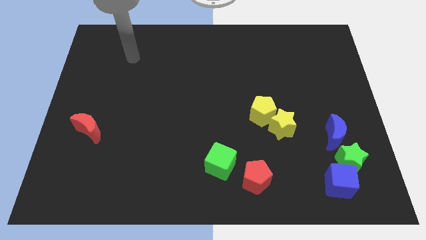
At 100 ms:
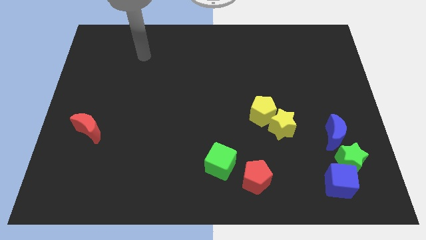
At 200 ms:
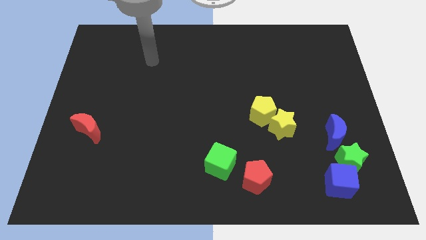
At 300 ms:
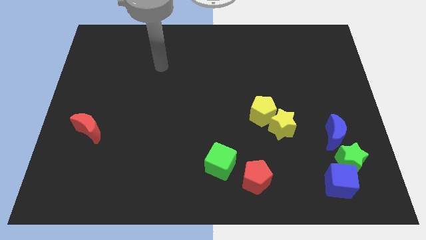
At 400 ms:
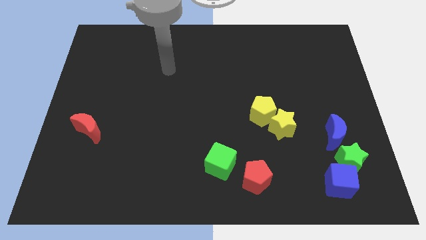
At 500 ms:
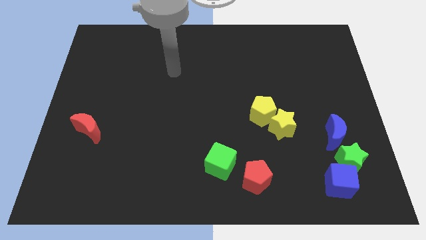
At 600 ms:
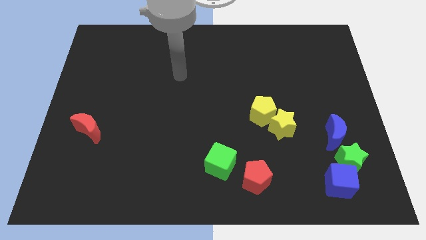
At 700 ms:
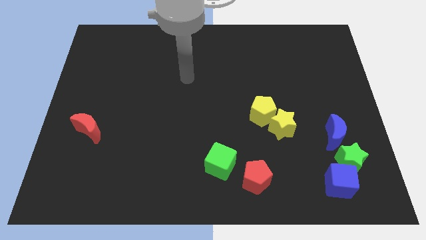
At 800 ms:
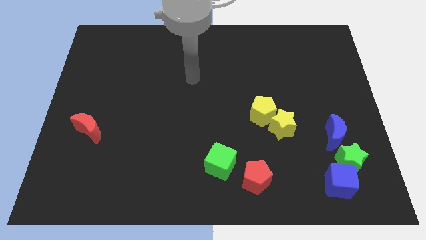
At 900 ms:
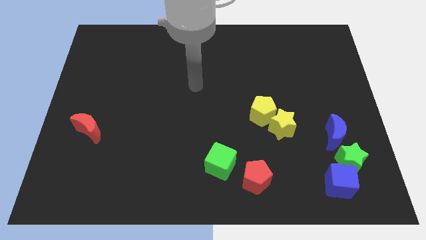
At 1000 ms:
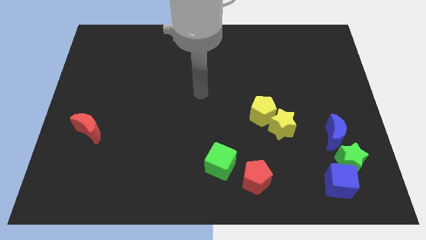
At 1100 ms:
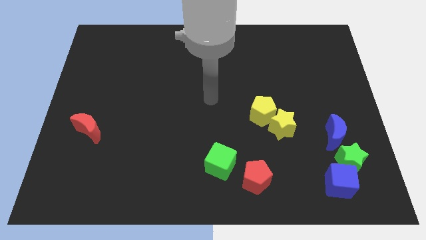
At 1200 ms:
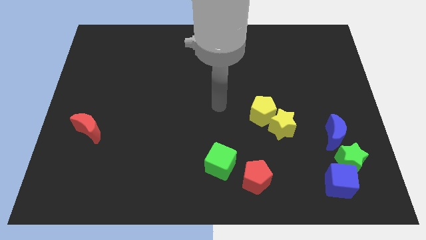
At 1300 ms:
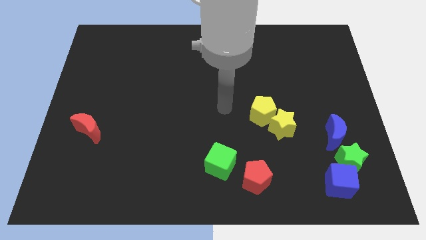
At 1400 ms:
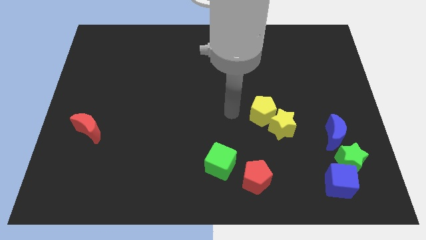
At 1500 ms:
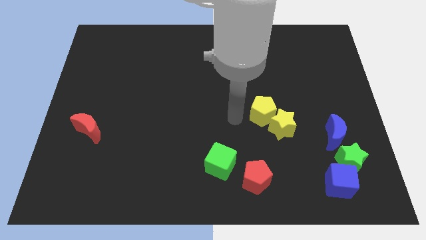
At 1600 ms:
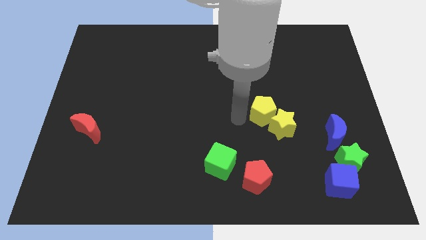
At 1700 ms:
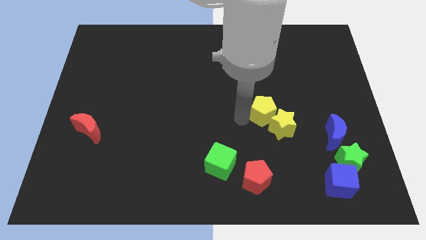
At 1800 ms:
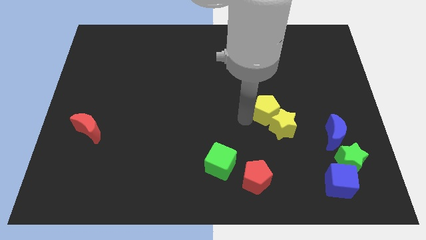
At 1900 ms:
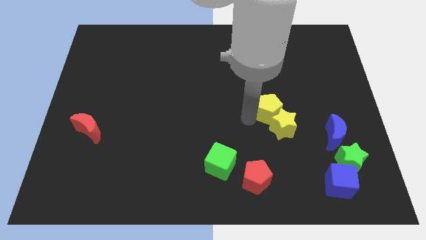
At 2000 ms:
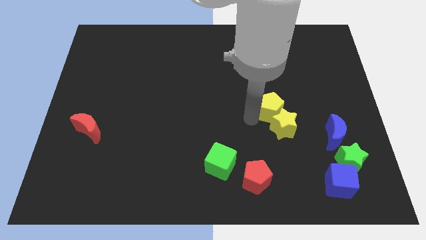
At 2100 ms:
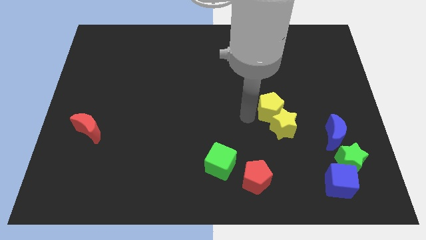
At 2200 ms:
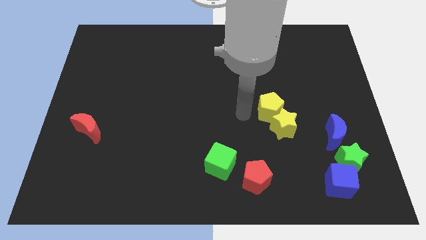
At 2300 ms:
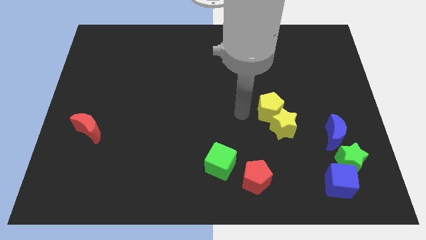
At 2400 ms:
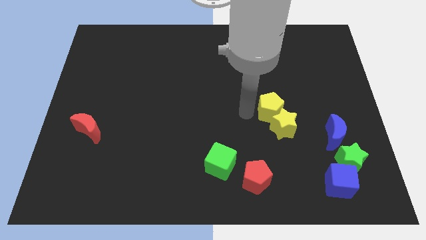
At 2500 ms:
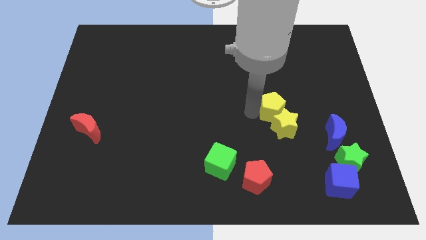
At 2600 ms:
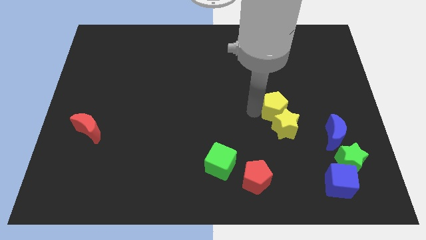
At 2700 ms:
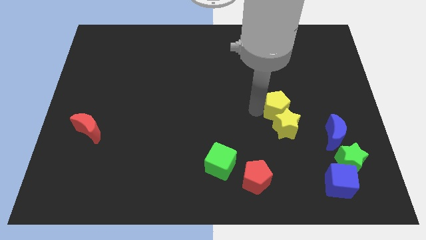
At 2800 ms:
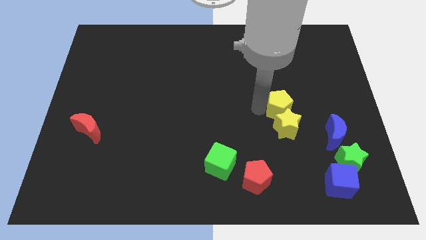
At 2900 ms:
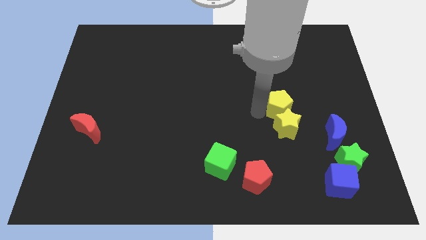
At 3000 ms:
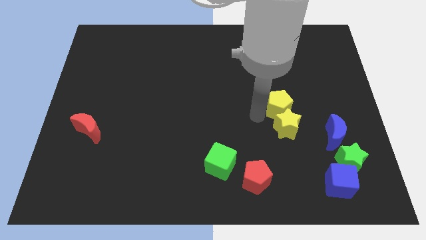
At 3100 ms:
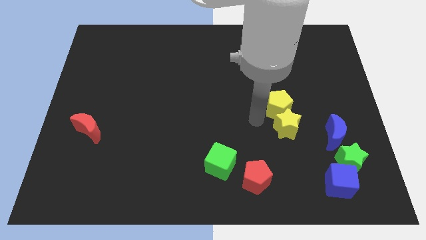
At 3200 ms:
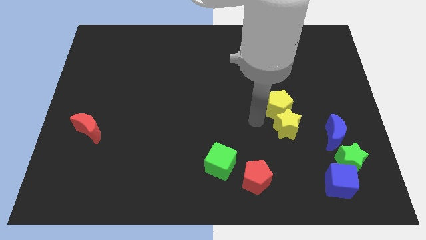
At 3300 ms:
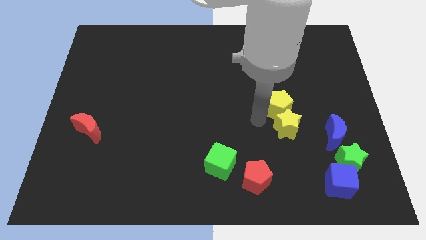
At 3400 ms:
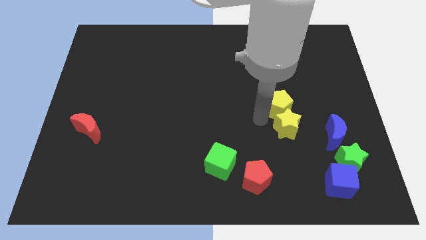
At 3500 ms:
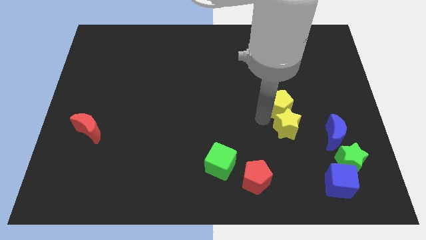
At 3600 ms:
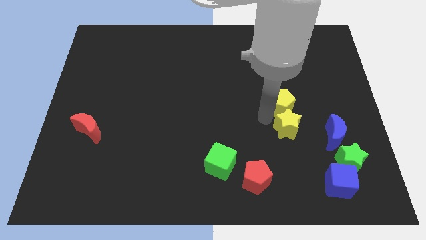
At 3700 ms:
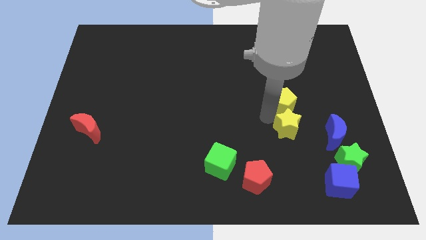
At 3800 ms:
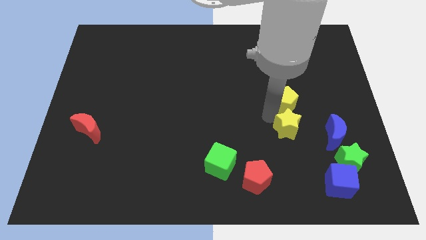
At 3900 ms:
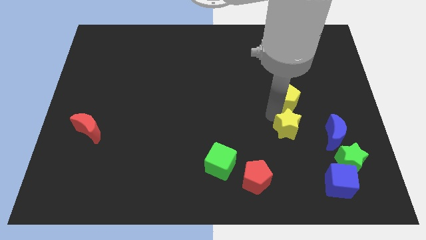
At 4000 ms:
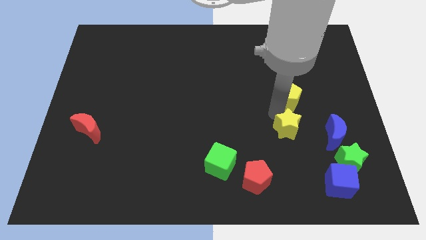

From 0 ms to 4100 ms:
slide the yellow pentagon a little up and right

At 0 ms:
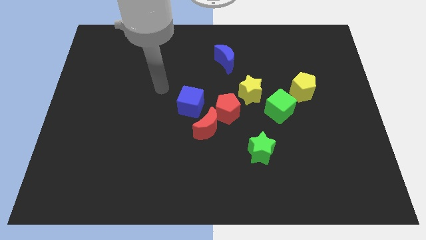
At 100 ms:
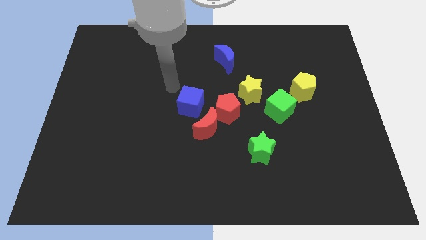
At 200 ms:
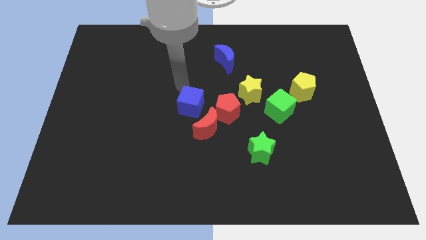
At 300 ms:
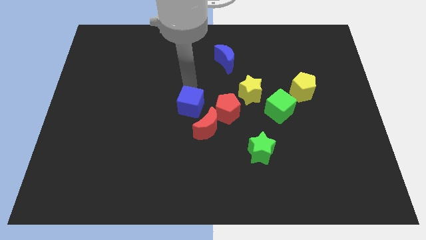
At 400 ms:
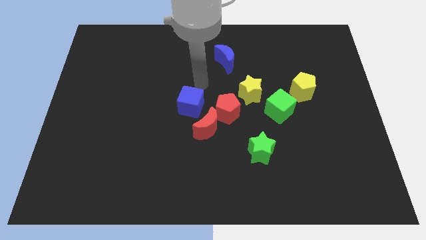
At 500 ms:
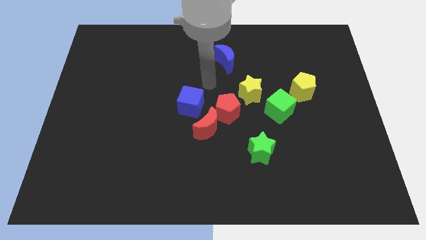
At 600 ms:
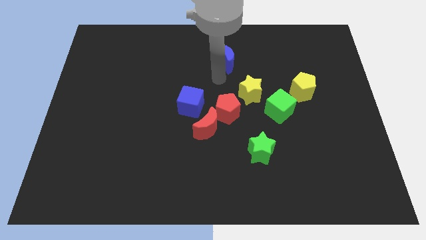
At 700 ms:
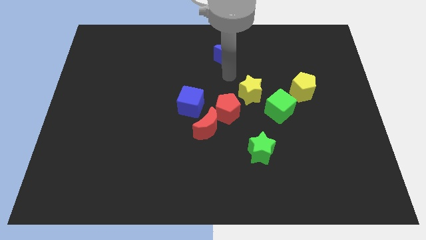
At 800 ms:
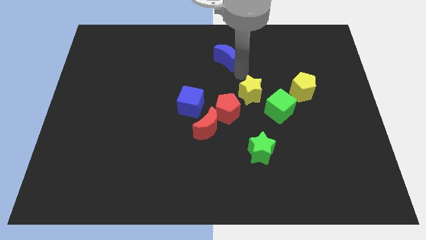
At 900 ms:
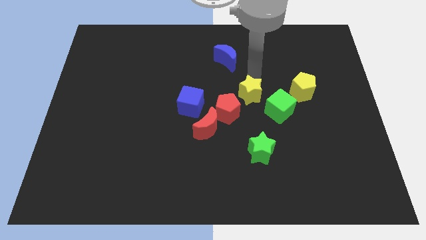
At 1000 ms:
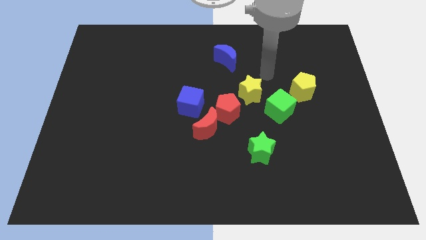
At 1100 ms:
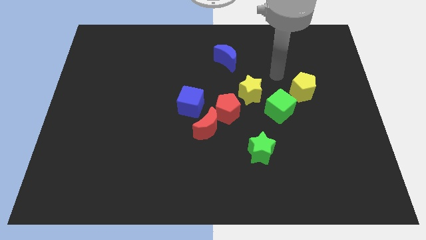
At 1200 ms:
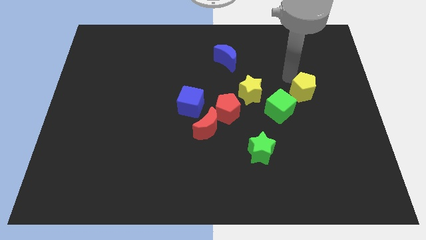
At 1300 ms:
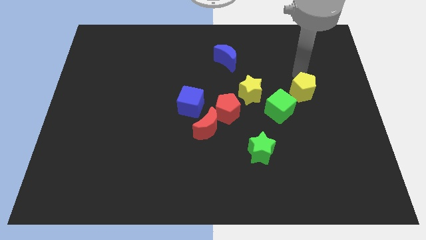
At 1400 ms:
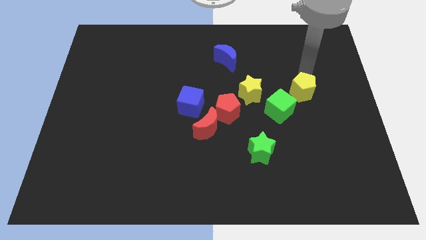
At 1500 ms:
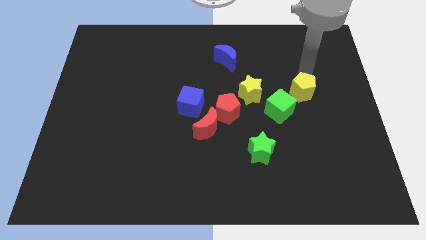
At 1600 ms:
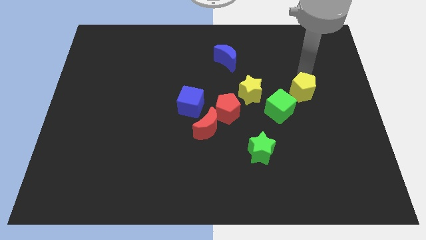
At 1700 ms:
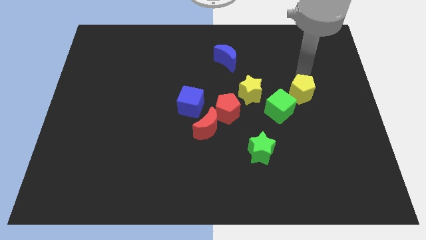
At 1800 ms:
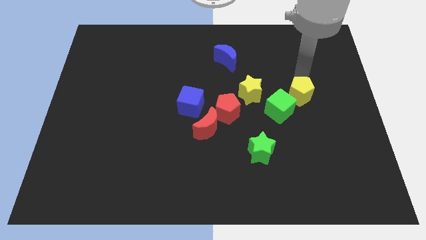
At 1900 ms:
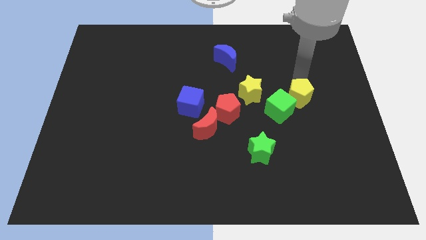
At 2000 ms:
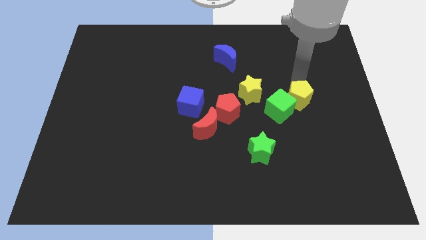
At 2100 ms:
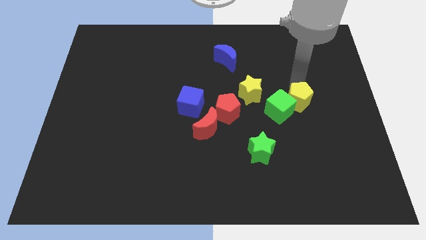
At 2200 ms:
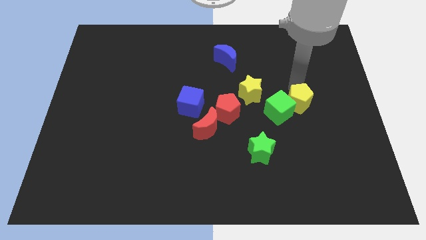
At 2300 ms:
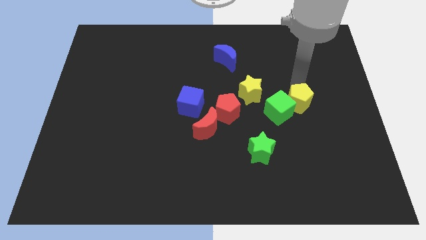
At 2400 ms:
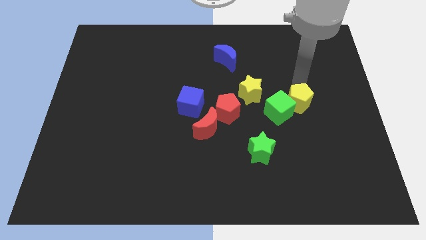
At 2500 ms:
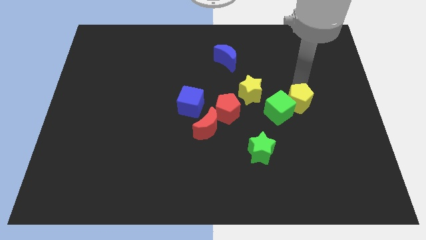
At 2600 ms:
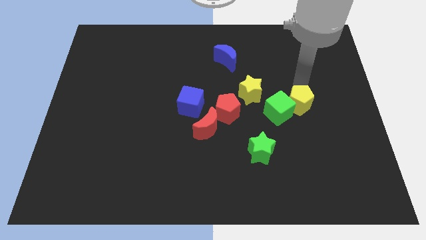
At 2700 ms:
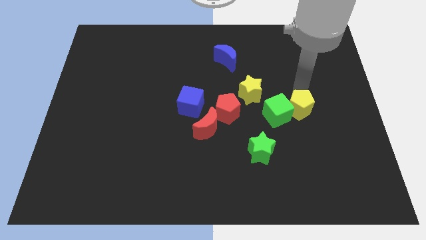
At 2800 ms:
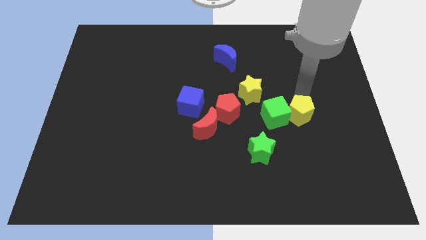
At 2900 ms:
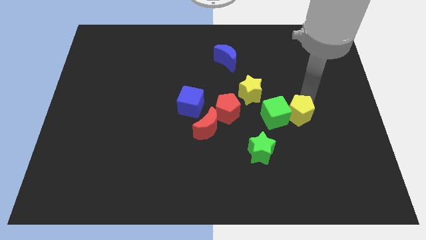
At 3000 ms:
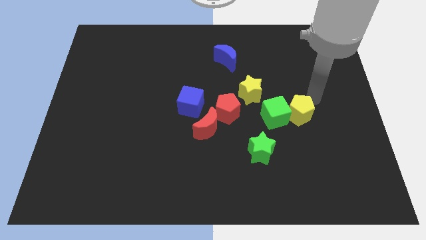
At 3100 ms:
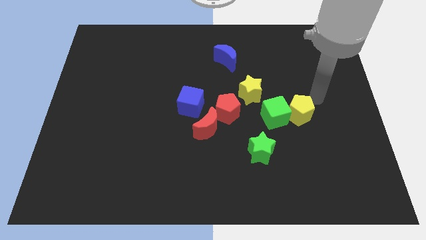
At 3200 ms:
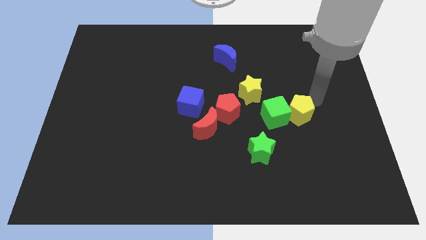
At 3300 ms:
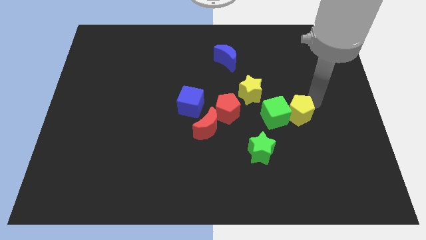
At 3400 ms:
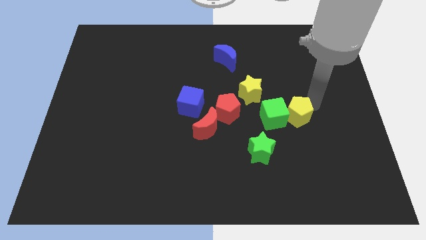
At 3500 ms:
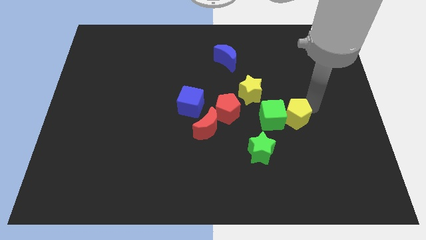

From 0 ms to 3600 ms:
slide the yellow pentagon a little downwards and then left

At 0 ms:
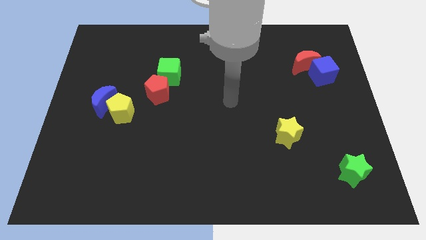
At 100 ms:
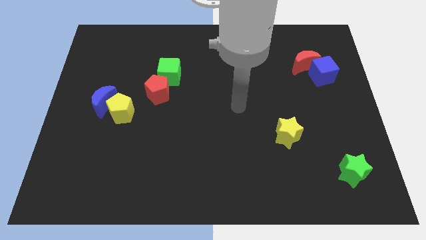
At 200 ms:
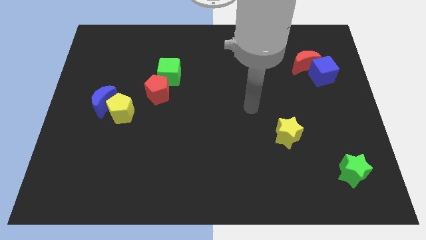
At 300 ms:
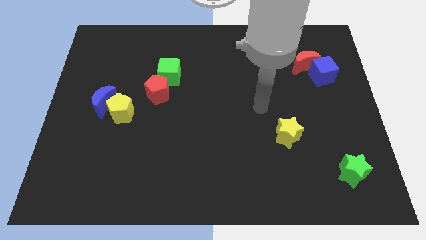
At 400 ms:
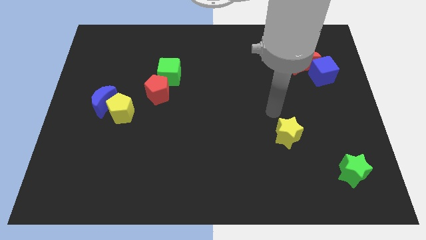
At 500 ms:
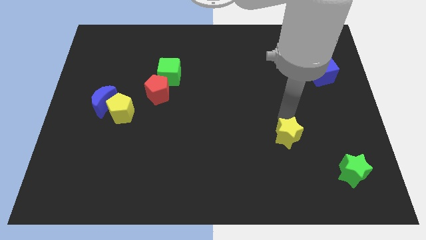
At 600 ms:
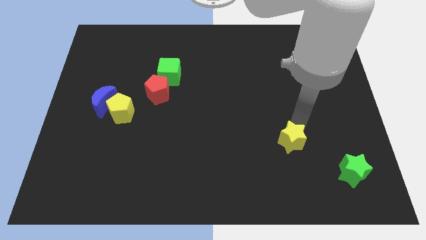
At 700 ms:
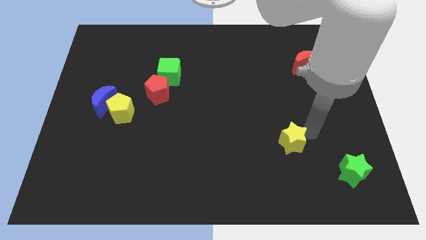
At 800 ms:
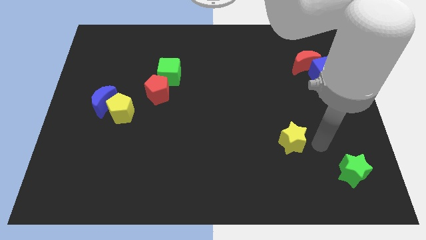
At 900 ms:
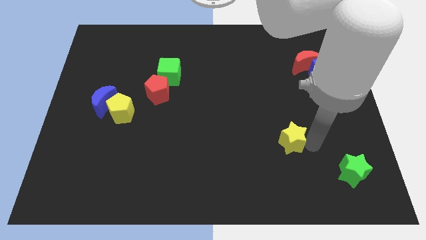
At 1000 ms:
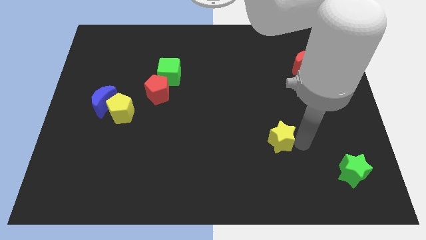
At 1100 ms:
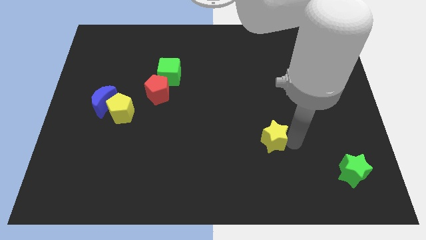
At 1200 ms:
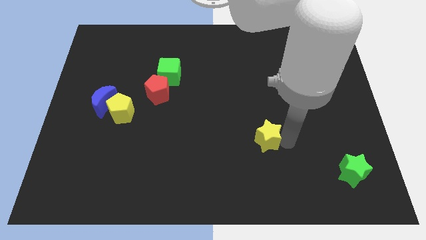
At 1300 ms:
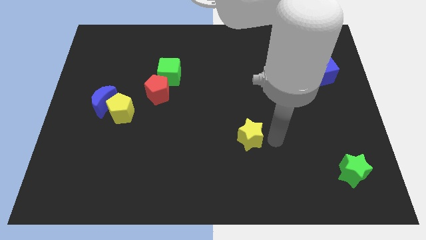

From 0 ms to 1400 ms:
slightly slide the yellow star left
